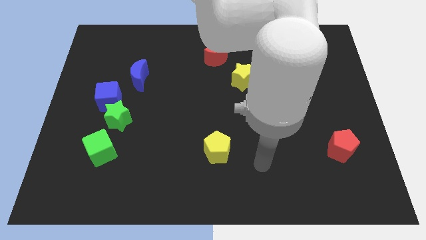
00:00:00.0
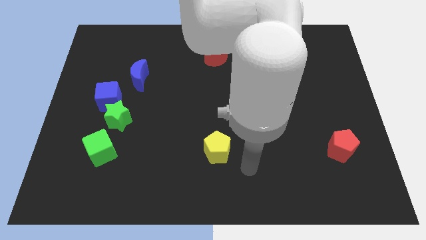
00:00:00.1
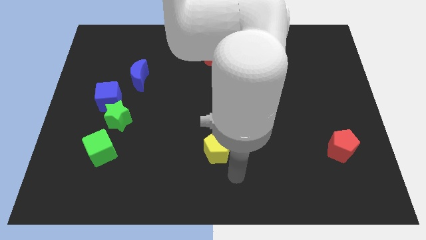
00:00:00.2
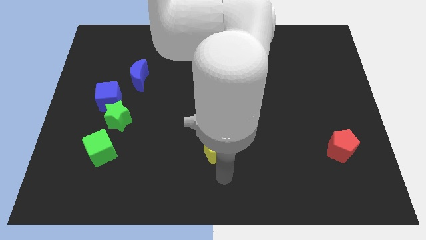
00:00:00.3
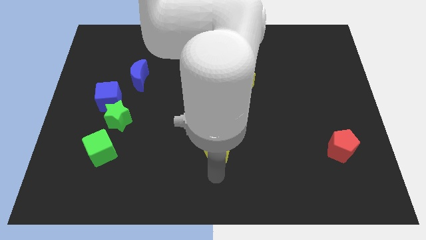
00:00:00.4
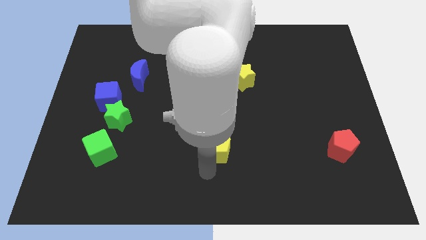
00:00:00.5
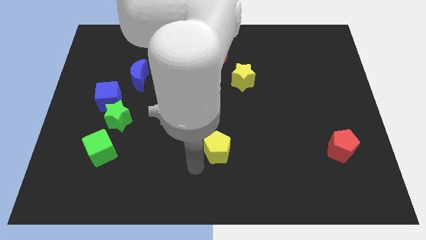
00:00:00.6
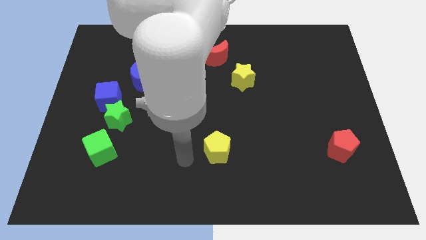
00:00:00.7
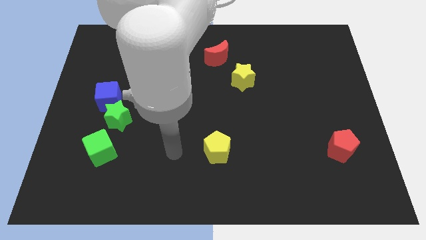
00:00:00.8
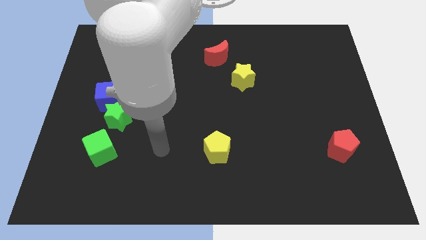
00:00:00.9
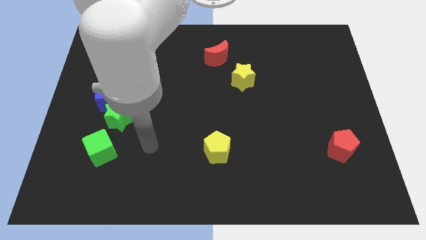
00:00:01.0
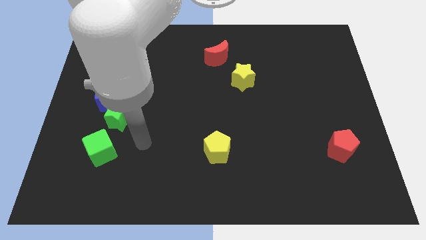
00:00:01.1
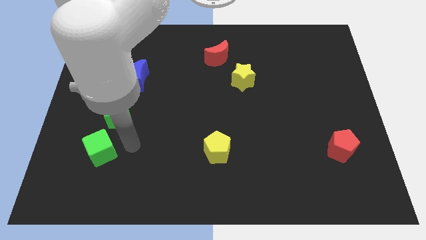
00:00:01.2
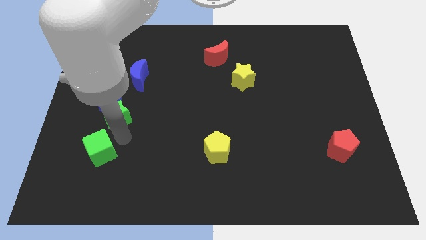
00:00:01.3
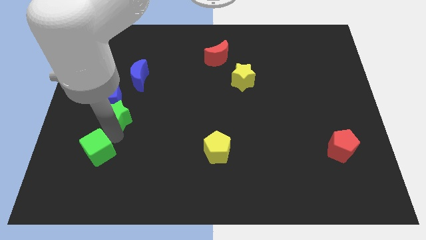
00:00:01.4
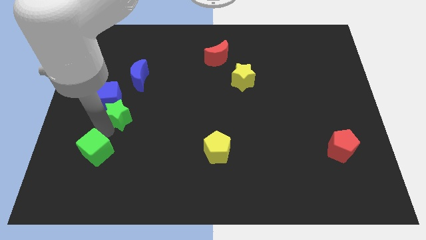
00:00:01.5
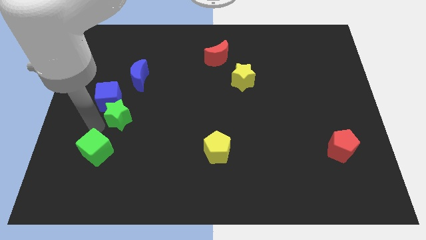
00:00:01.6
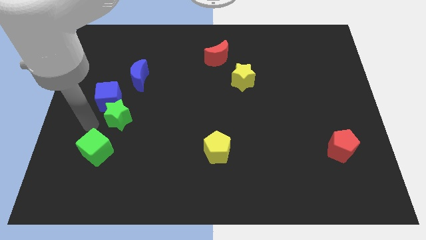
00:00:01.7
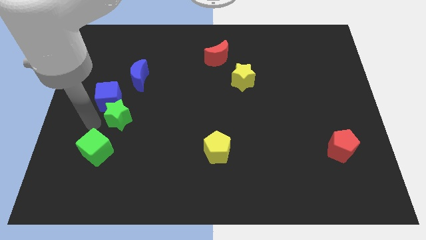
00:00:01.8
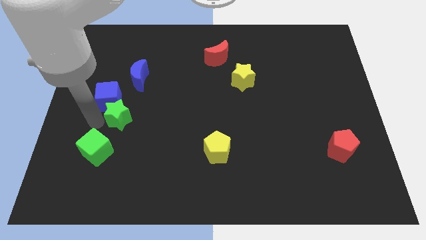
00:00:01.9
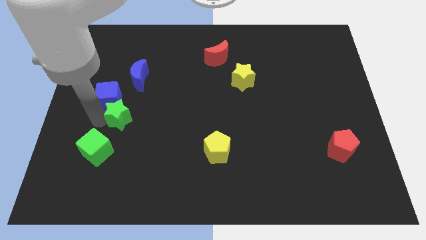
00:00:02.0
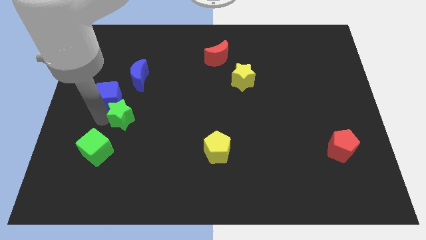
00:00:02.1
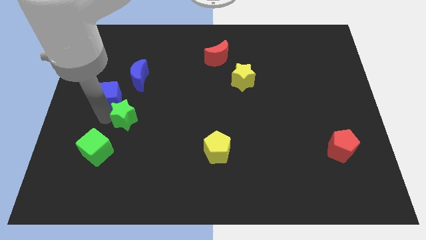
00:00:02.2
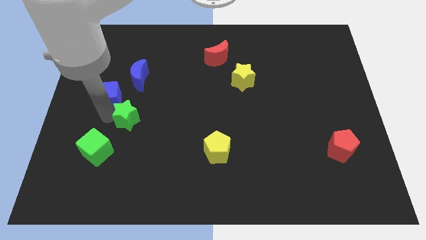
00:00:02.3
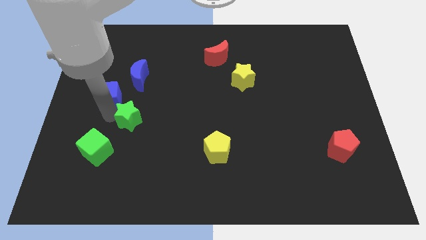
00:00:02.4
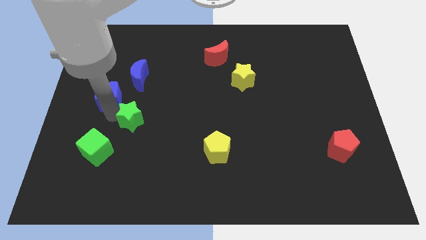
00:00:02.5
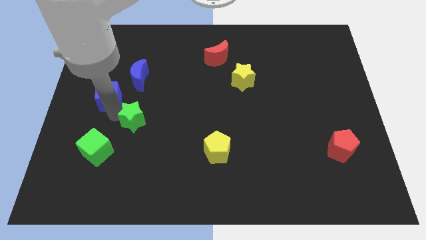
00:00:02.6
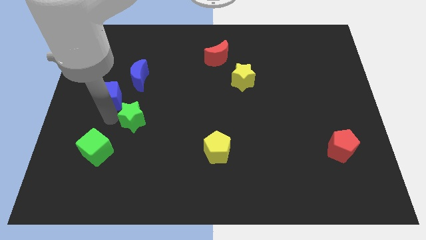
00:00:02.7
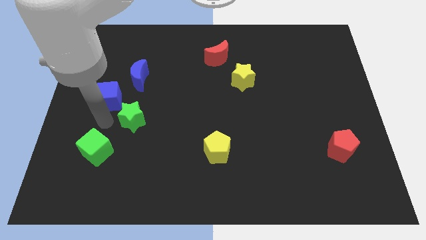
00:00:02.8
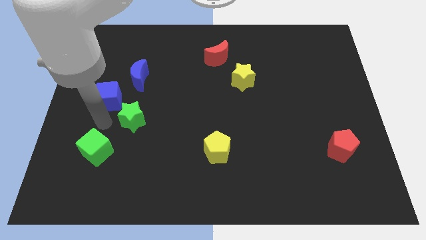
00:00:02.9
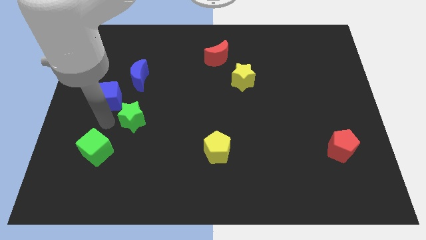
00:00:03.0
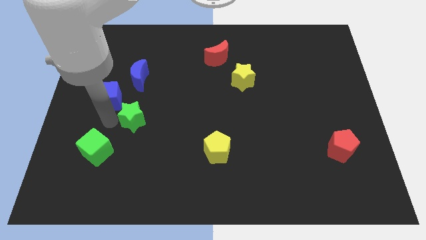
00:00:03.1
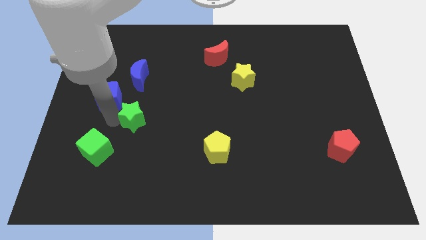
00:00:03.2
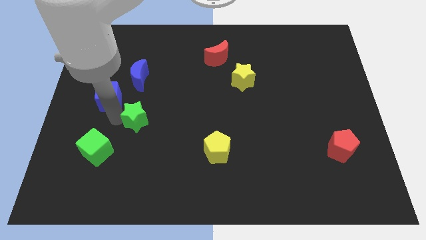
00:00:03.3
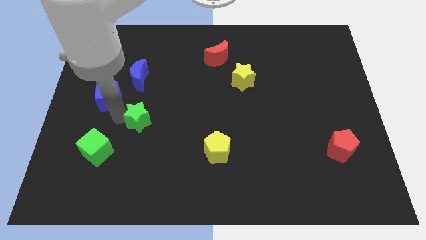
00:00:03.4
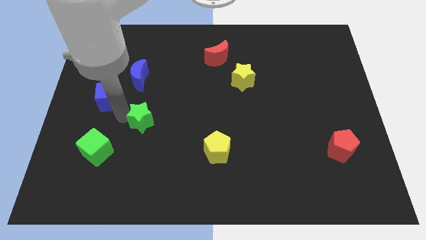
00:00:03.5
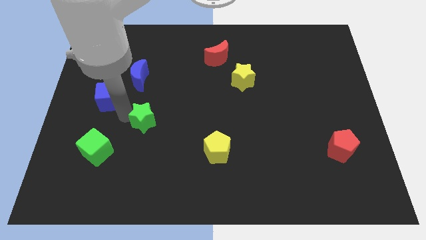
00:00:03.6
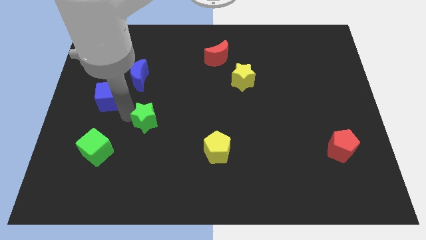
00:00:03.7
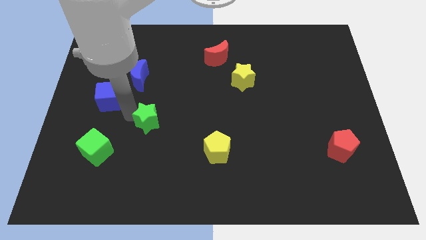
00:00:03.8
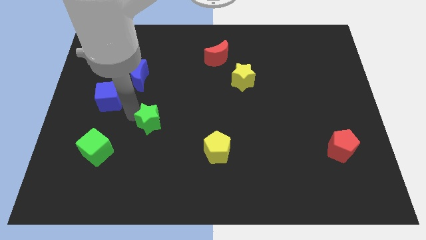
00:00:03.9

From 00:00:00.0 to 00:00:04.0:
move the green star away from the blue cube and green cube

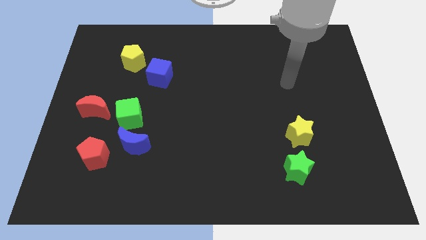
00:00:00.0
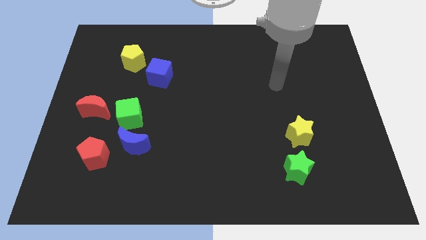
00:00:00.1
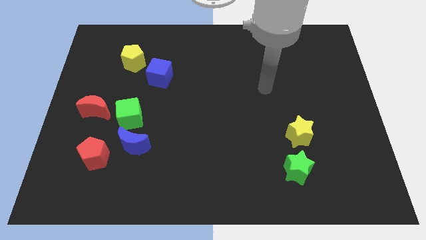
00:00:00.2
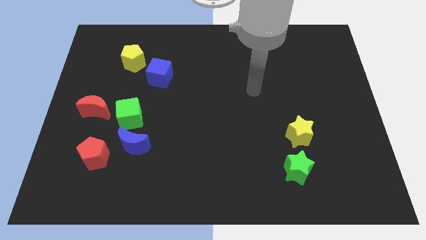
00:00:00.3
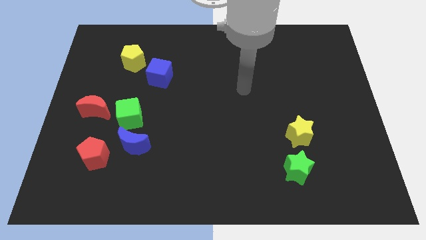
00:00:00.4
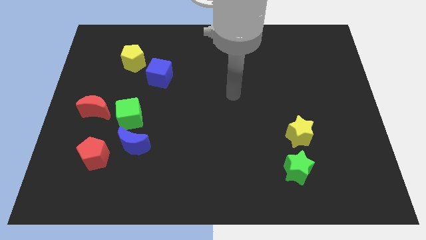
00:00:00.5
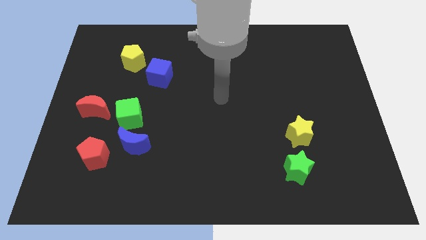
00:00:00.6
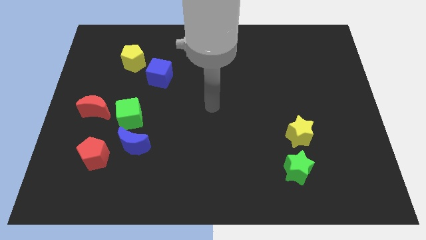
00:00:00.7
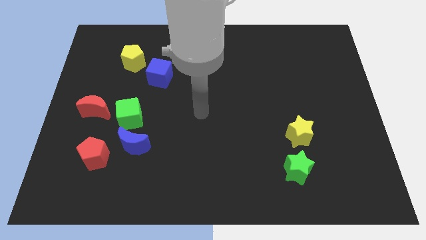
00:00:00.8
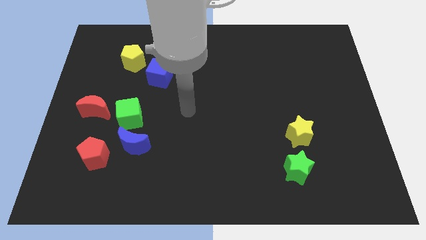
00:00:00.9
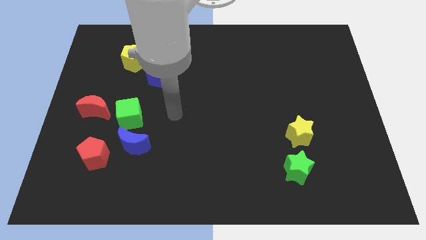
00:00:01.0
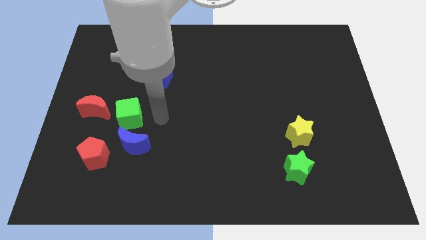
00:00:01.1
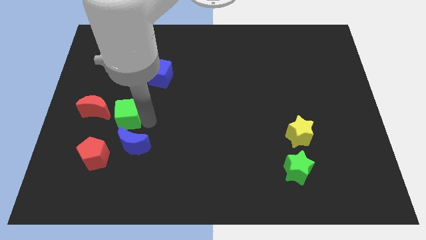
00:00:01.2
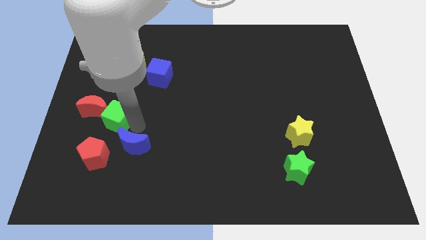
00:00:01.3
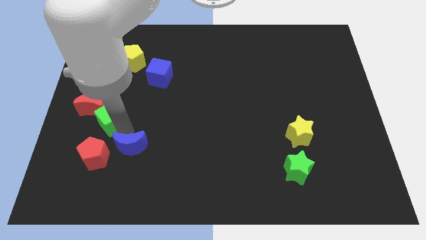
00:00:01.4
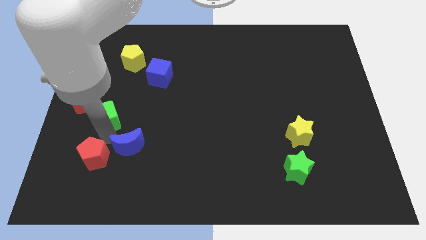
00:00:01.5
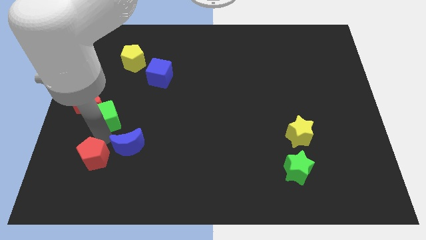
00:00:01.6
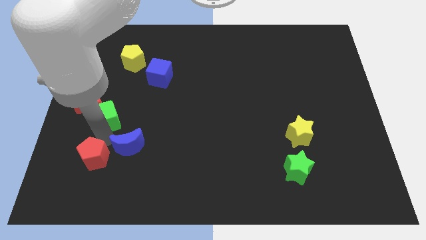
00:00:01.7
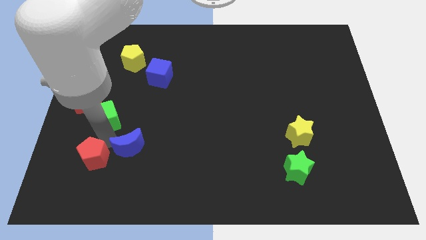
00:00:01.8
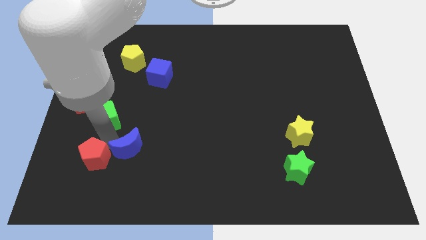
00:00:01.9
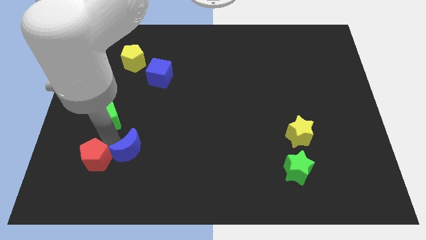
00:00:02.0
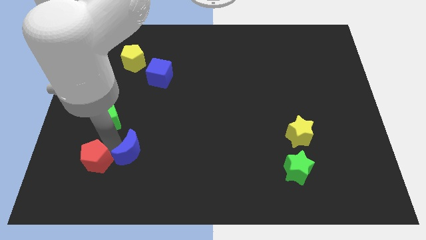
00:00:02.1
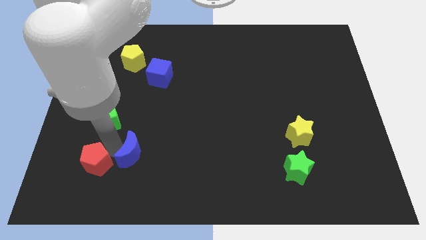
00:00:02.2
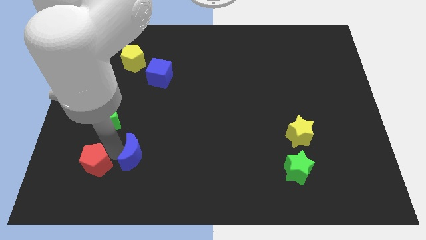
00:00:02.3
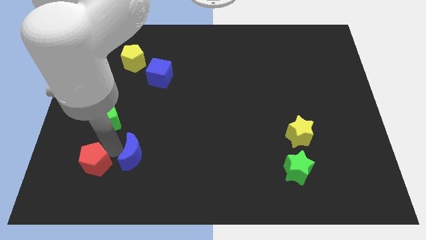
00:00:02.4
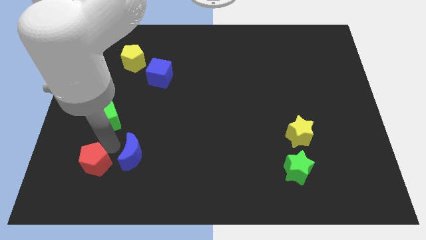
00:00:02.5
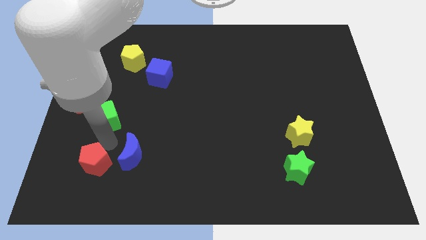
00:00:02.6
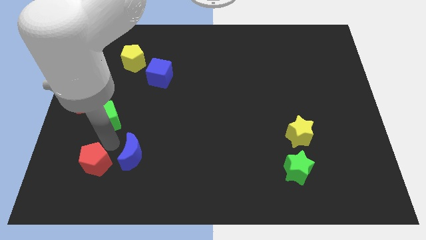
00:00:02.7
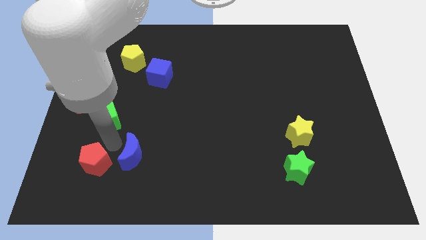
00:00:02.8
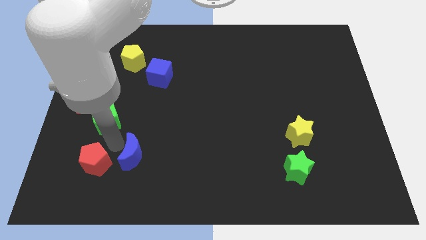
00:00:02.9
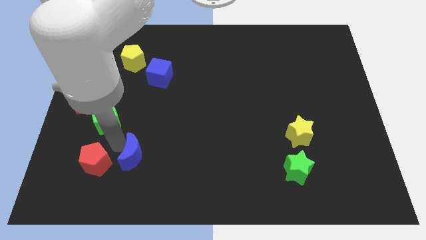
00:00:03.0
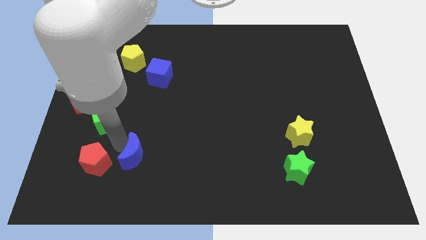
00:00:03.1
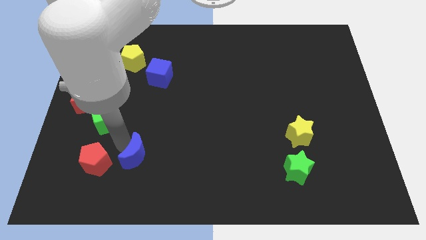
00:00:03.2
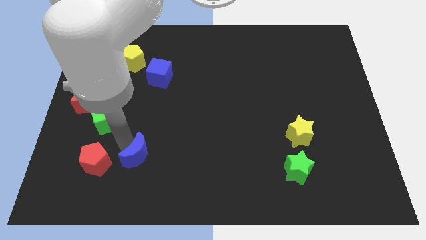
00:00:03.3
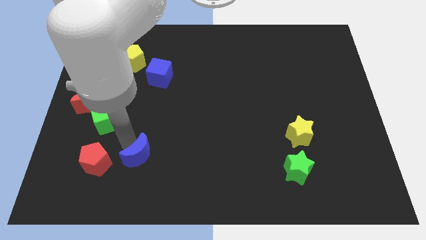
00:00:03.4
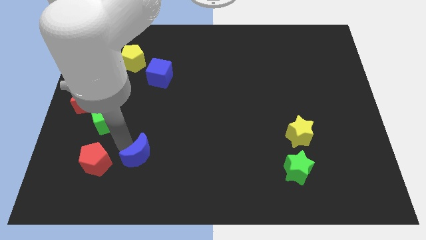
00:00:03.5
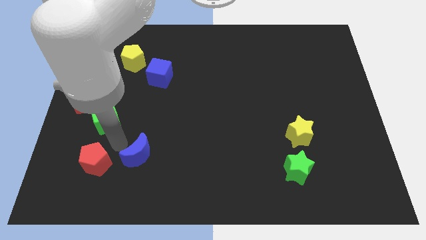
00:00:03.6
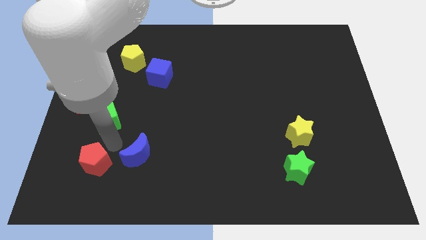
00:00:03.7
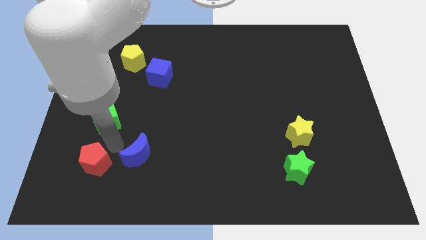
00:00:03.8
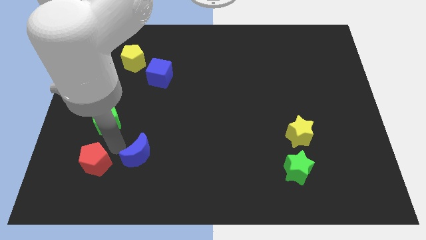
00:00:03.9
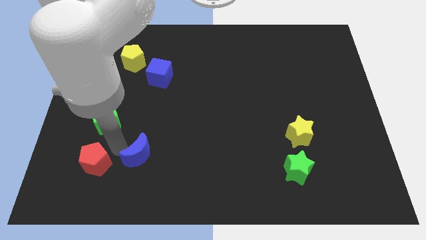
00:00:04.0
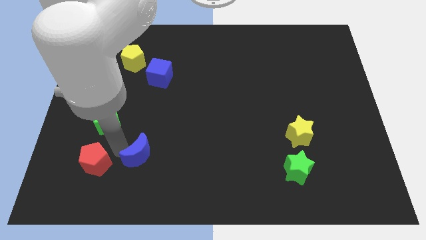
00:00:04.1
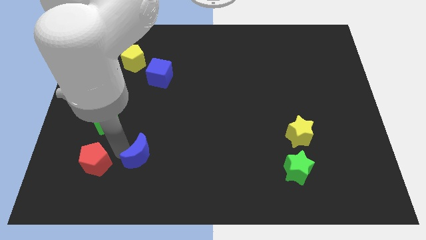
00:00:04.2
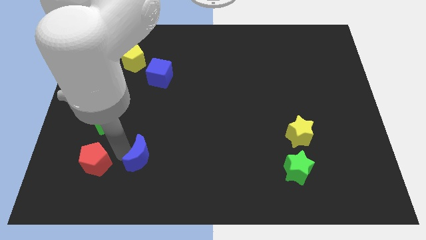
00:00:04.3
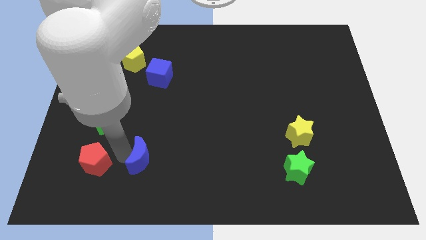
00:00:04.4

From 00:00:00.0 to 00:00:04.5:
separate the blue moon from the green cube and red pentagon

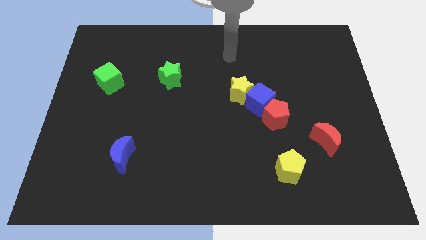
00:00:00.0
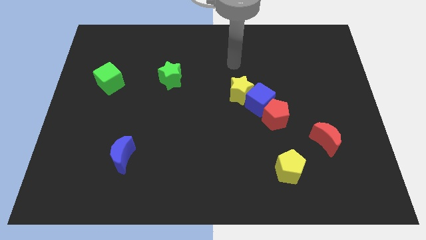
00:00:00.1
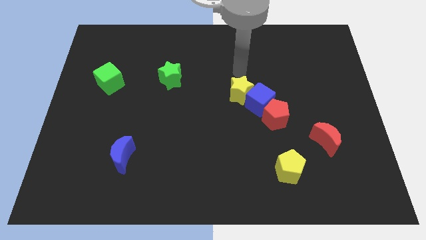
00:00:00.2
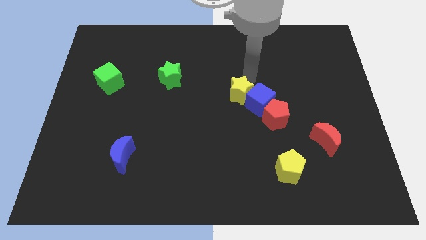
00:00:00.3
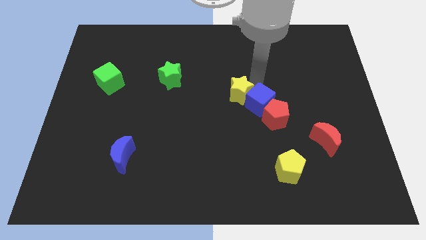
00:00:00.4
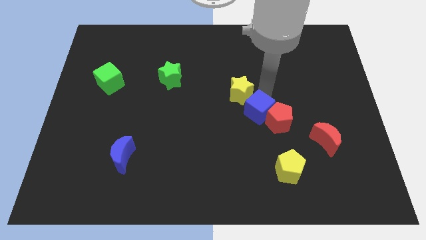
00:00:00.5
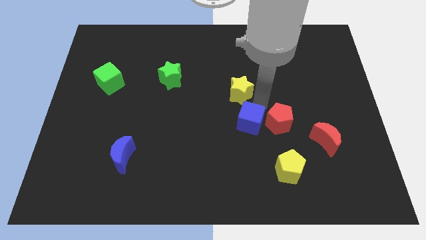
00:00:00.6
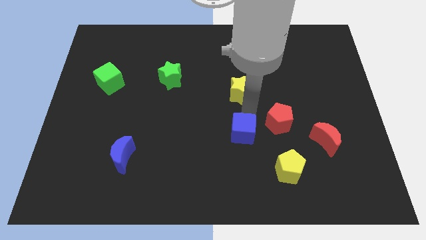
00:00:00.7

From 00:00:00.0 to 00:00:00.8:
pull the yellow star apart from the blue cube

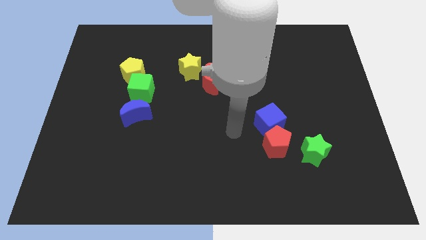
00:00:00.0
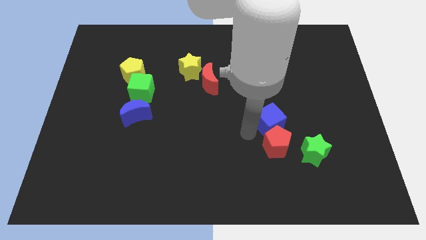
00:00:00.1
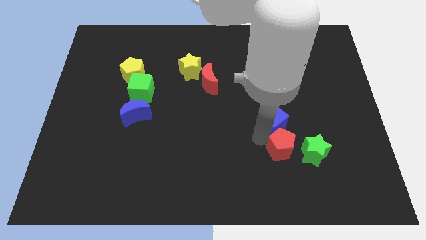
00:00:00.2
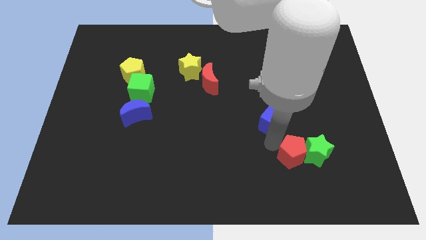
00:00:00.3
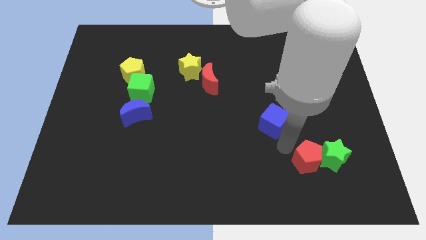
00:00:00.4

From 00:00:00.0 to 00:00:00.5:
pull the blue cube apart from the red pentagon
